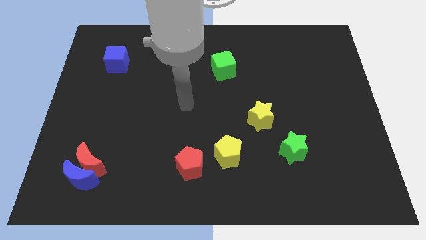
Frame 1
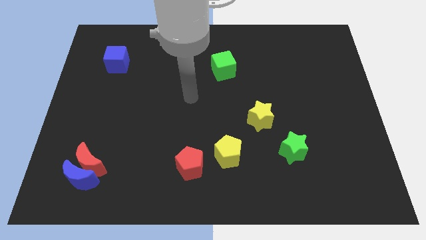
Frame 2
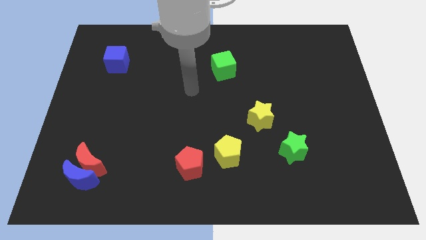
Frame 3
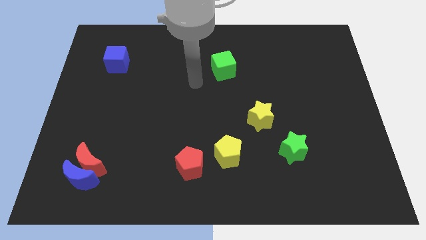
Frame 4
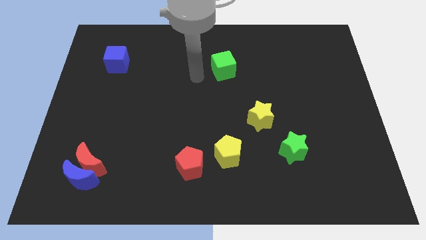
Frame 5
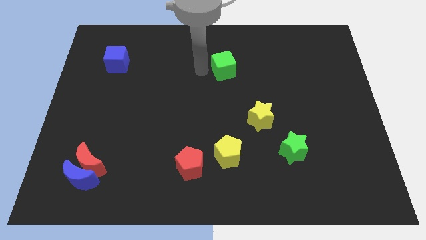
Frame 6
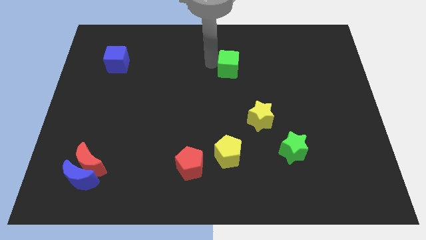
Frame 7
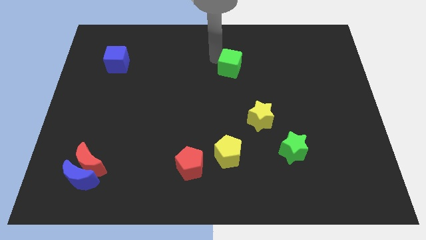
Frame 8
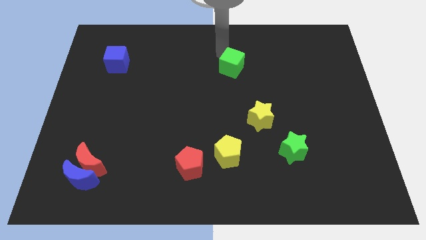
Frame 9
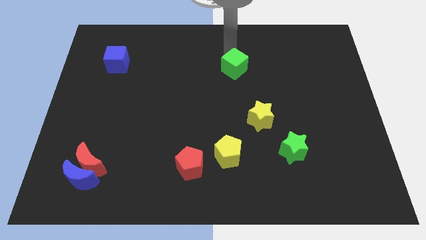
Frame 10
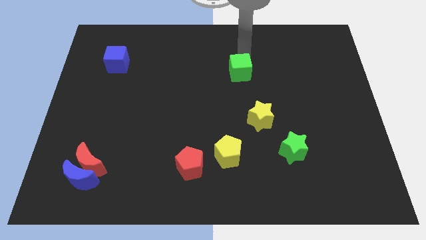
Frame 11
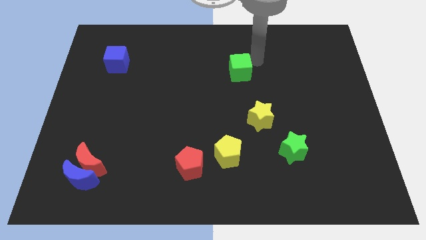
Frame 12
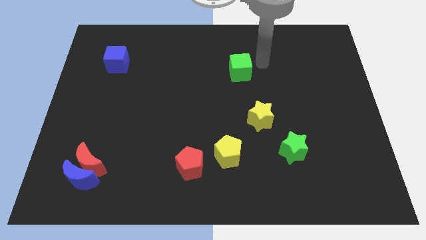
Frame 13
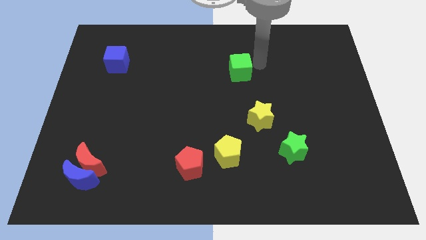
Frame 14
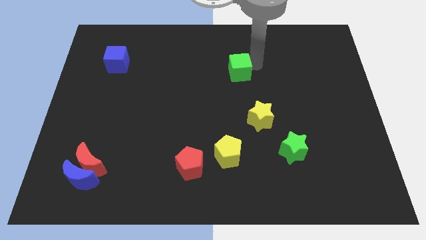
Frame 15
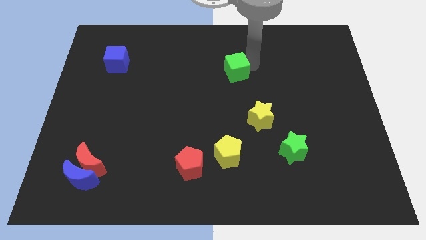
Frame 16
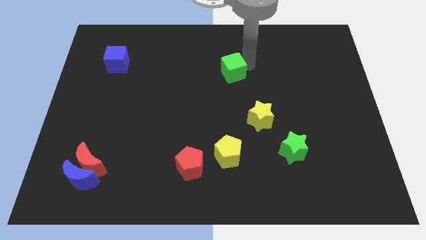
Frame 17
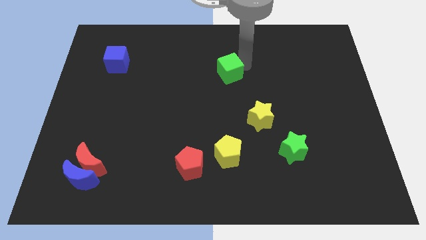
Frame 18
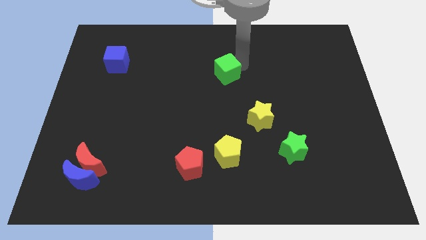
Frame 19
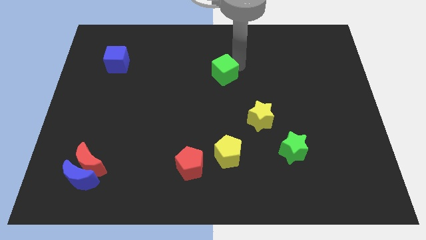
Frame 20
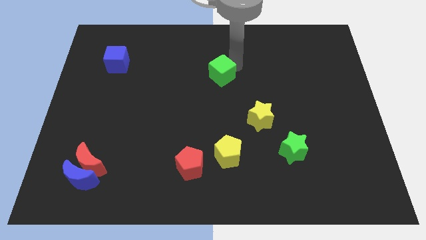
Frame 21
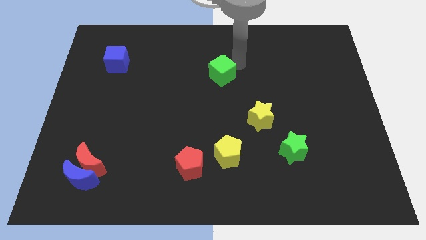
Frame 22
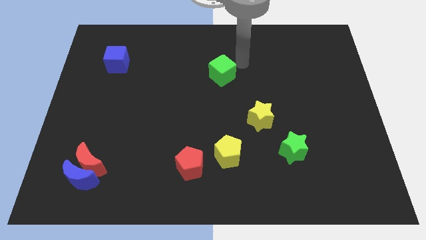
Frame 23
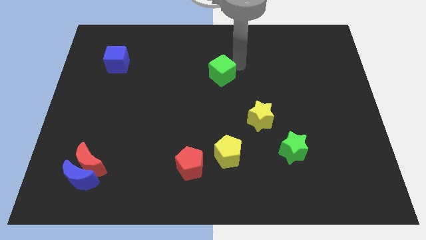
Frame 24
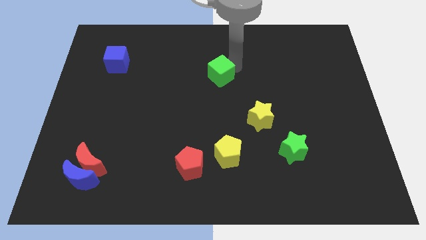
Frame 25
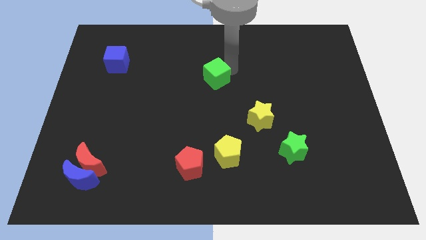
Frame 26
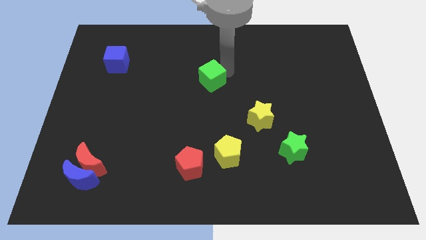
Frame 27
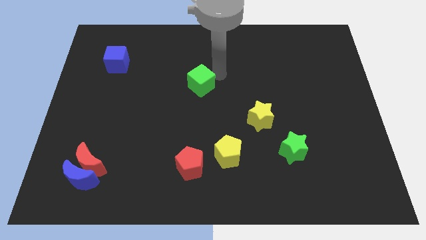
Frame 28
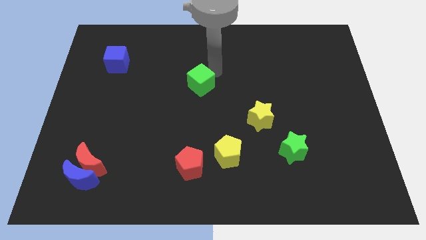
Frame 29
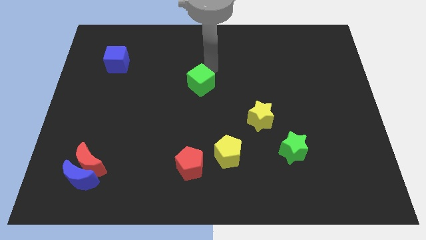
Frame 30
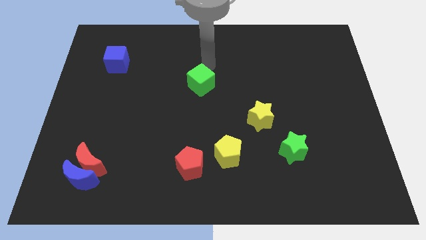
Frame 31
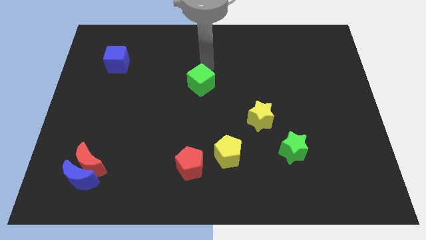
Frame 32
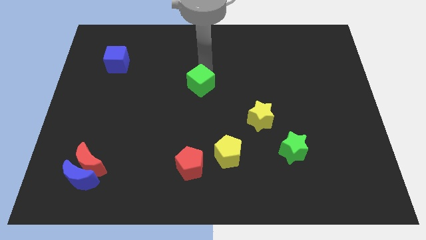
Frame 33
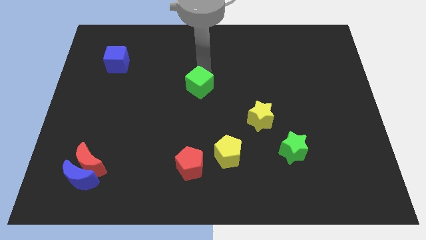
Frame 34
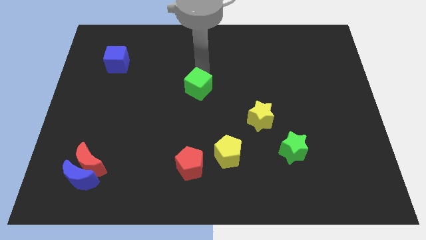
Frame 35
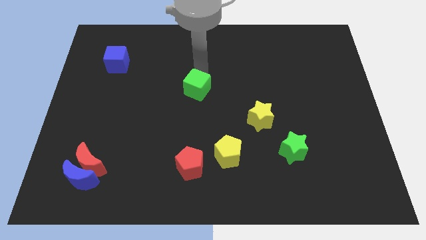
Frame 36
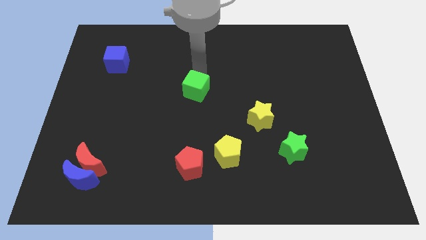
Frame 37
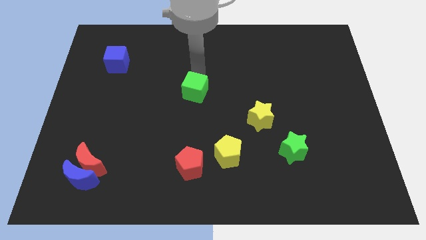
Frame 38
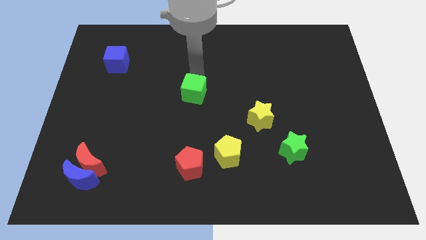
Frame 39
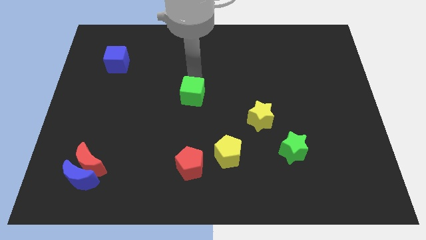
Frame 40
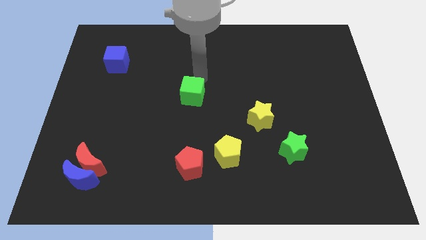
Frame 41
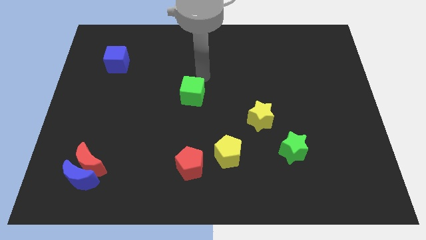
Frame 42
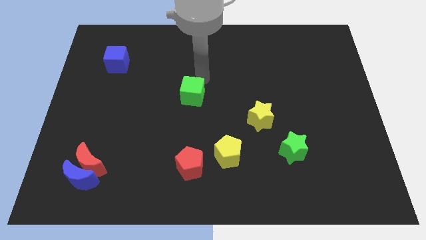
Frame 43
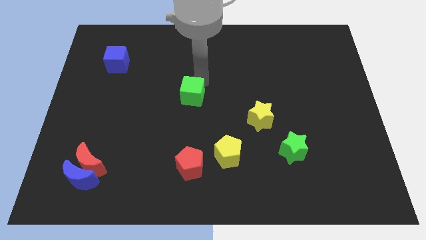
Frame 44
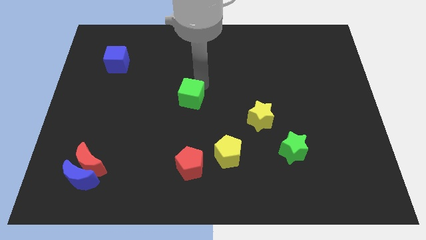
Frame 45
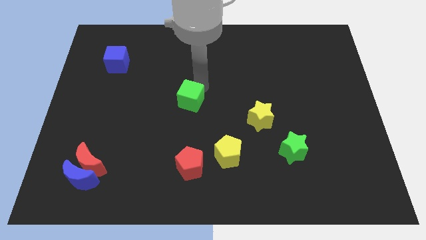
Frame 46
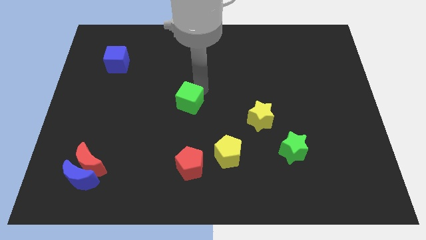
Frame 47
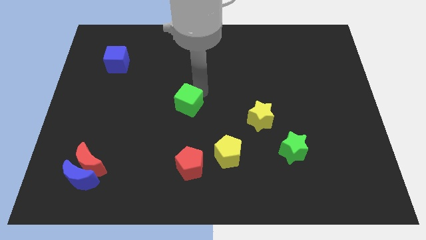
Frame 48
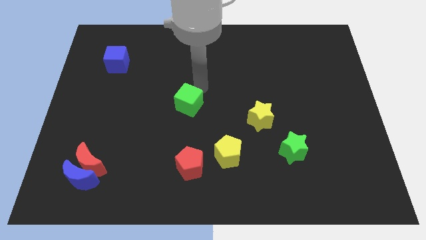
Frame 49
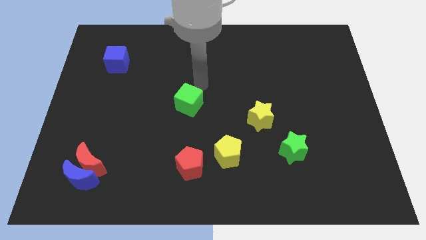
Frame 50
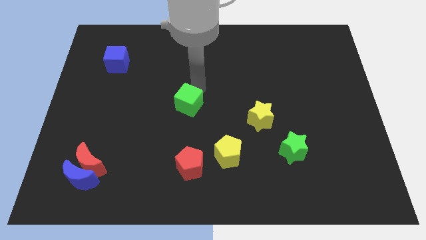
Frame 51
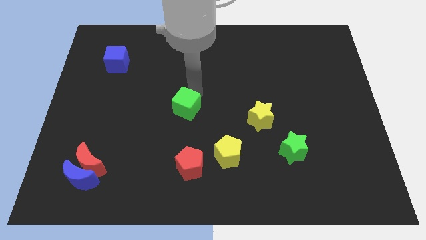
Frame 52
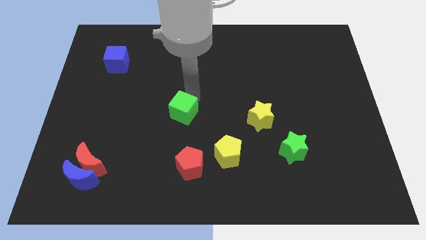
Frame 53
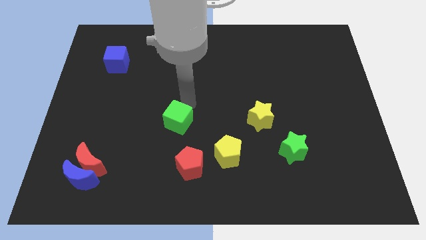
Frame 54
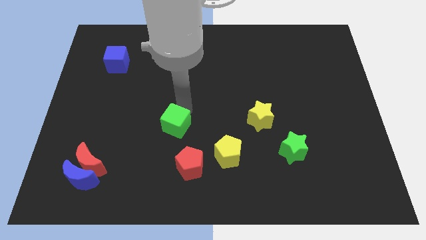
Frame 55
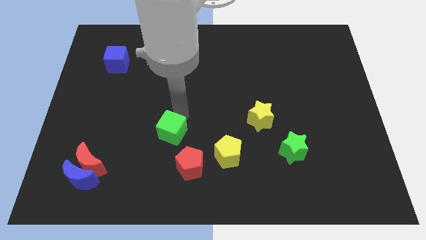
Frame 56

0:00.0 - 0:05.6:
push the green cube diagonally up and to the left of the red pentagon
